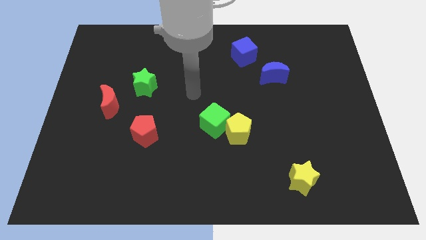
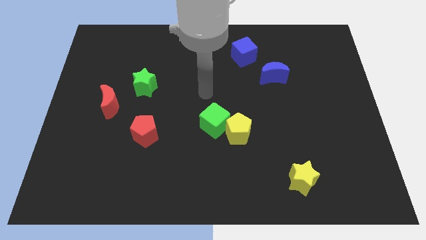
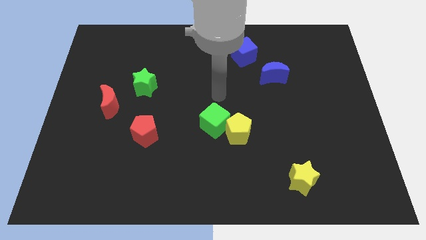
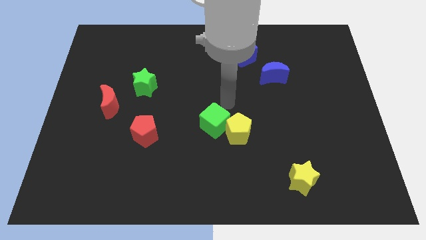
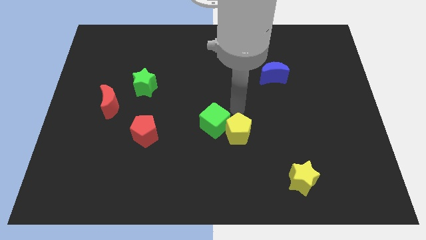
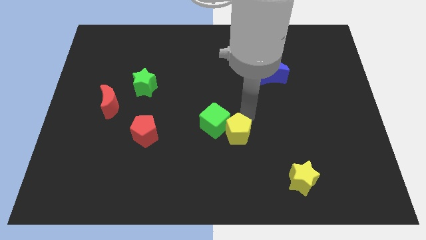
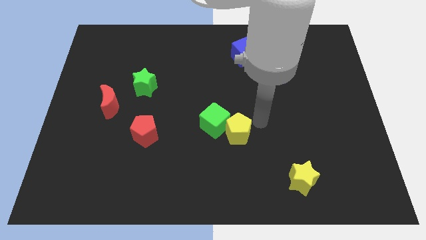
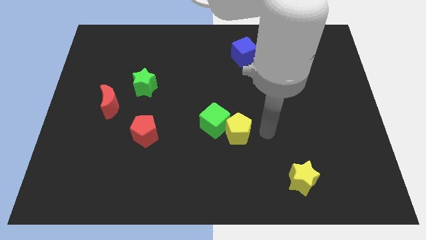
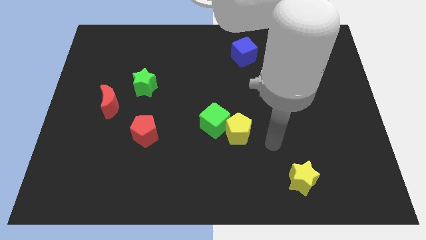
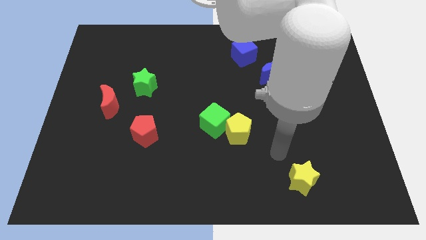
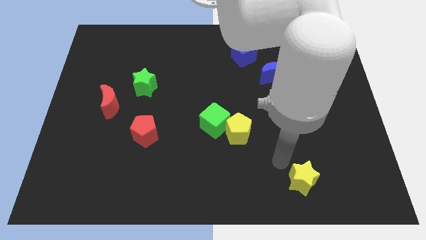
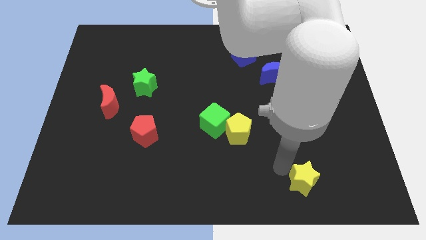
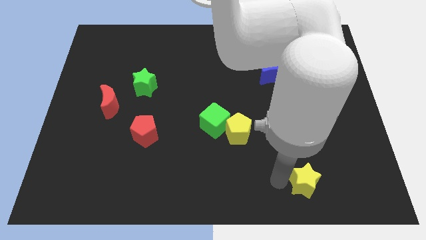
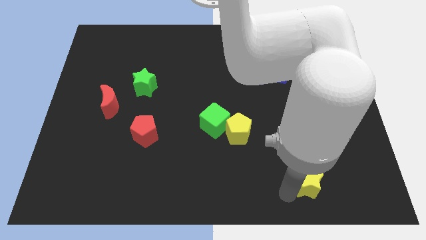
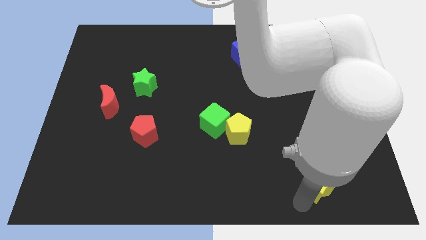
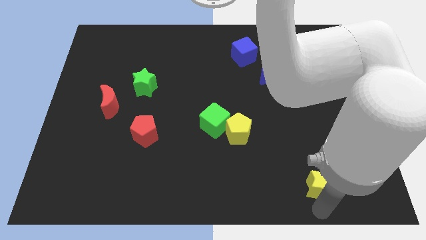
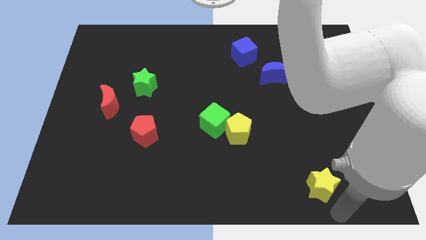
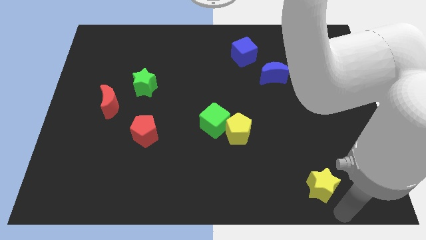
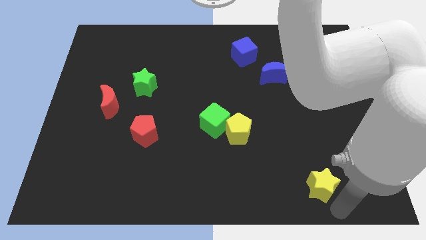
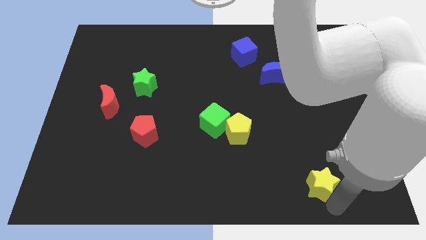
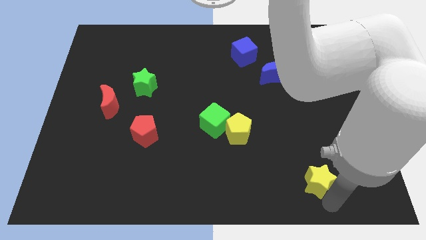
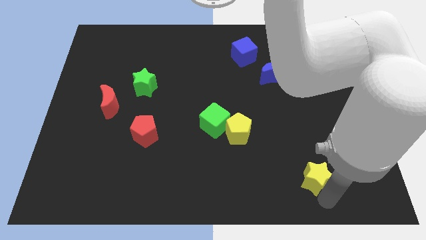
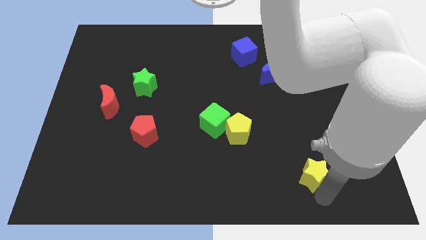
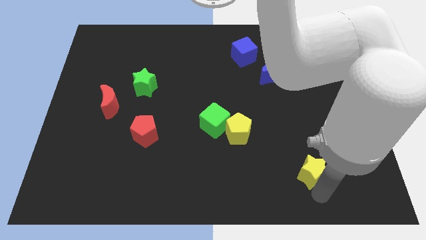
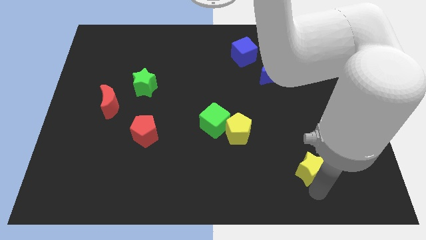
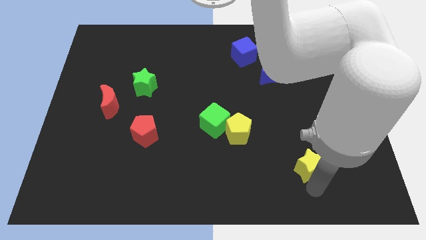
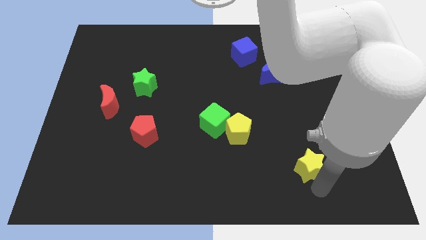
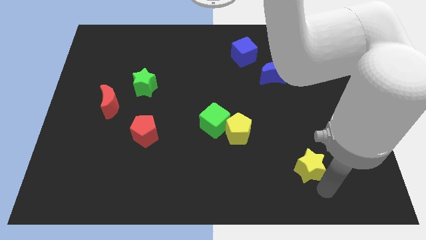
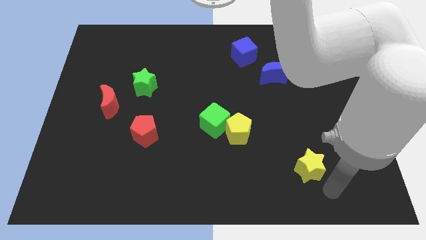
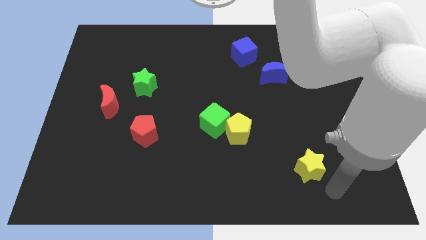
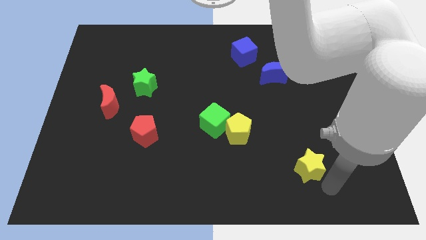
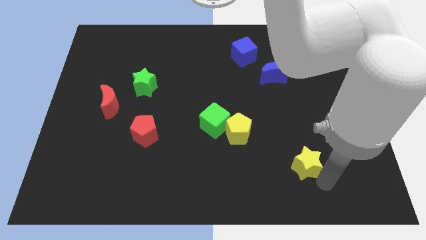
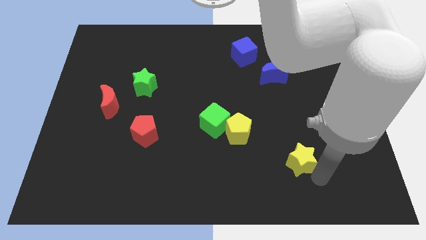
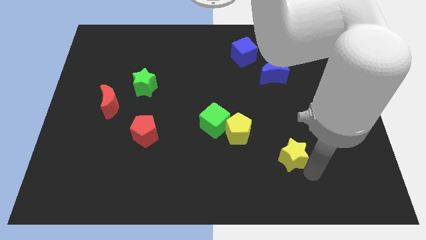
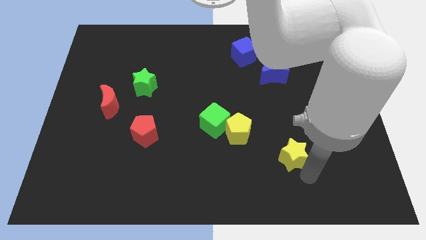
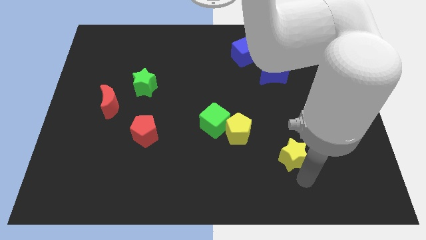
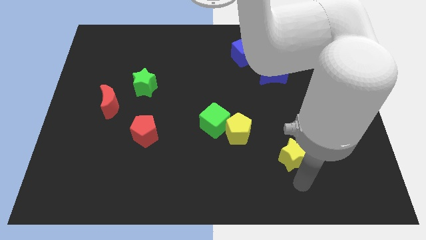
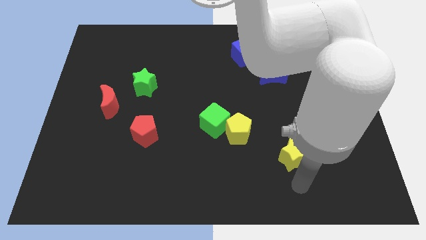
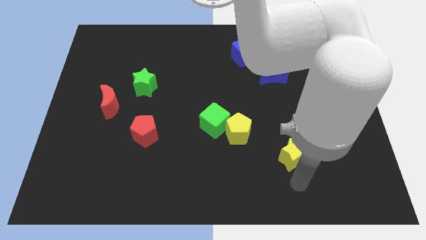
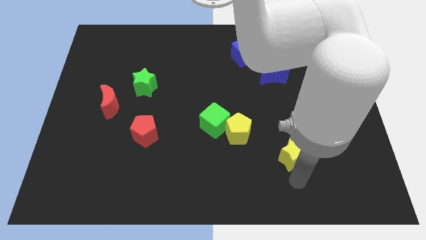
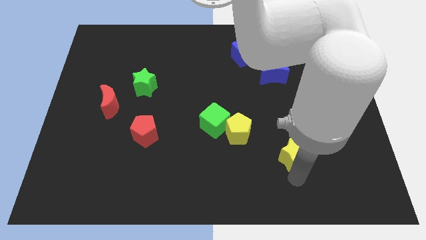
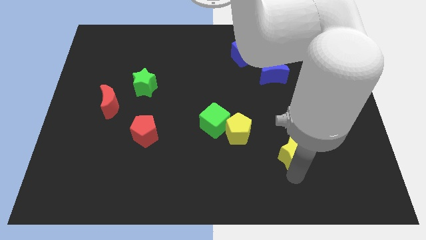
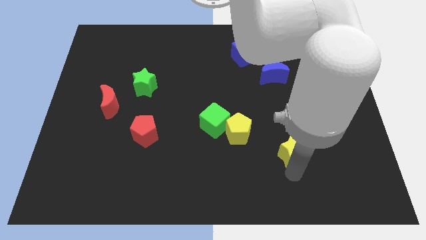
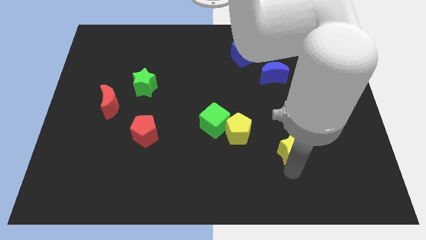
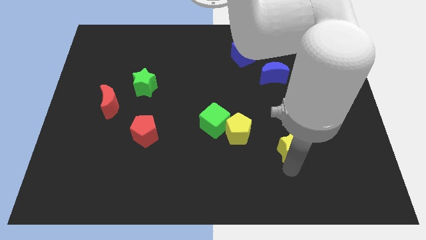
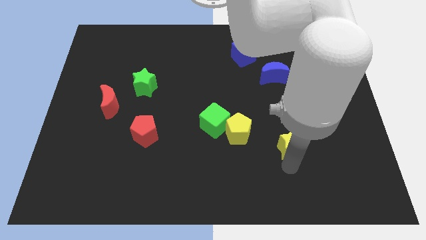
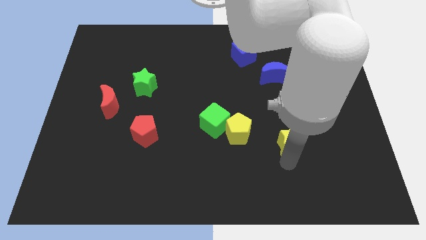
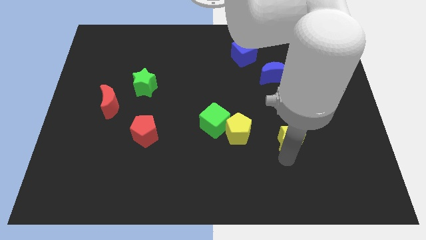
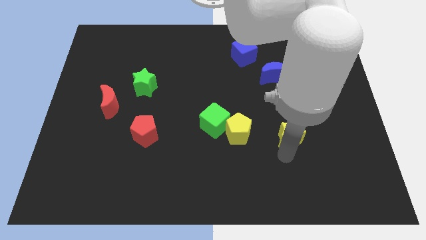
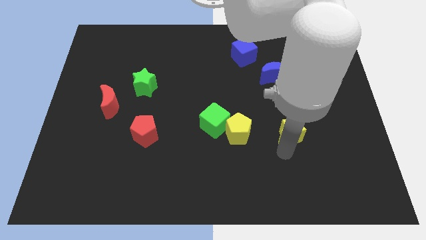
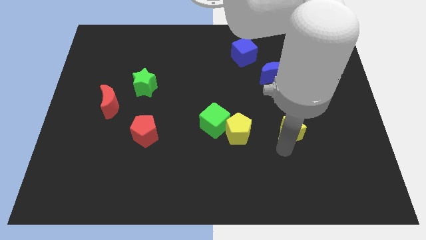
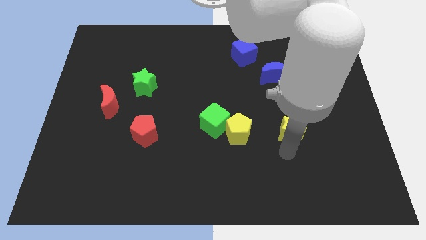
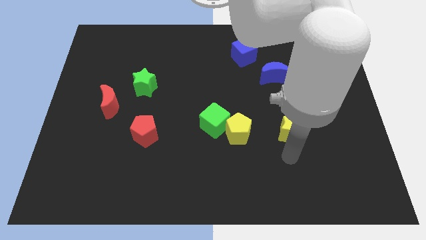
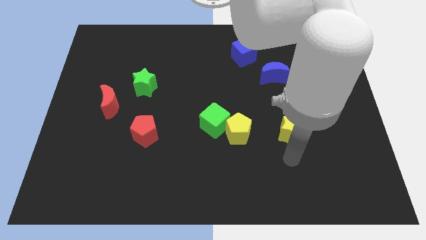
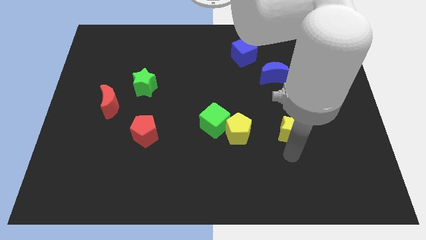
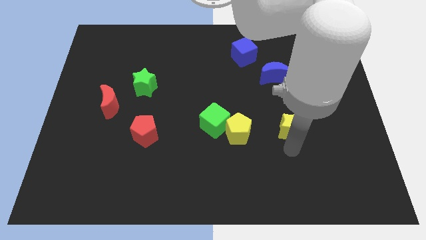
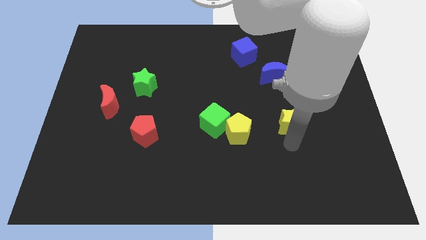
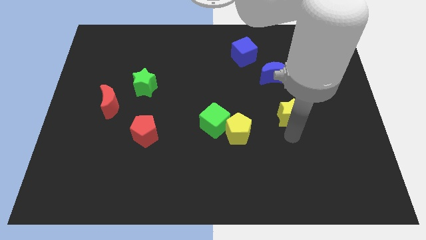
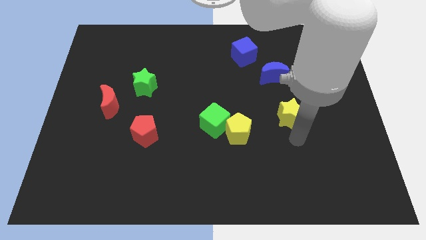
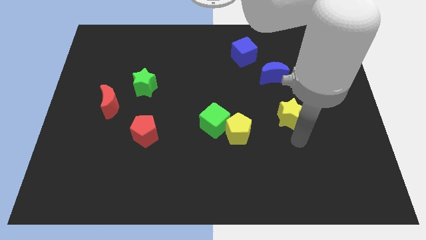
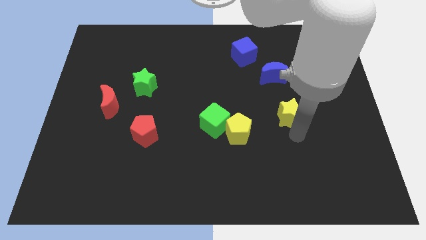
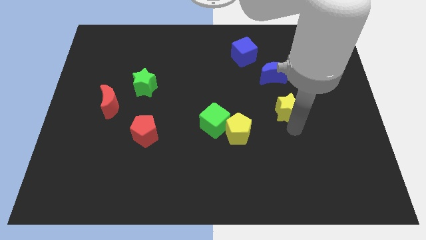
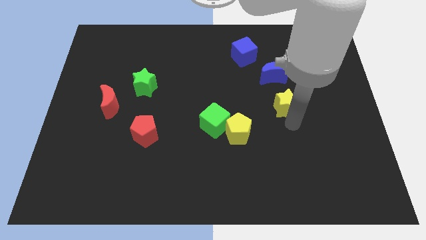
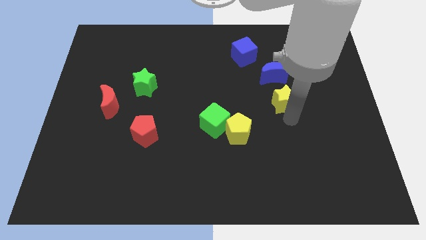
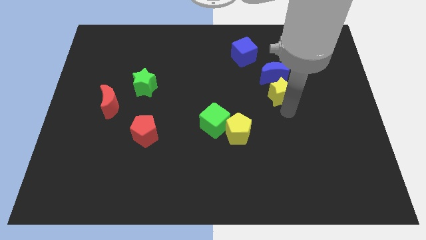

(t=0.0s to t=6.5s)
push the yellow star next to the blue moon

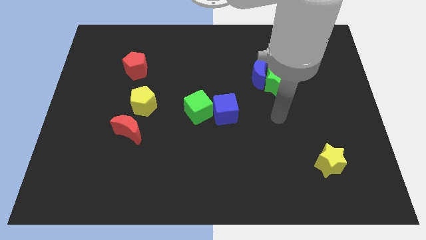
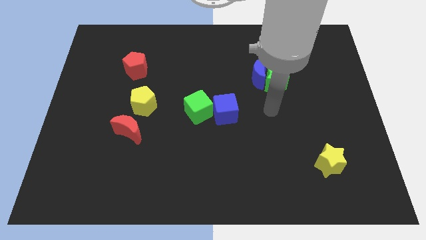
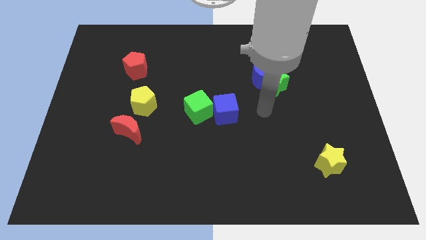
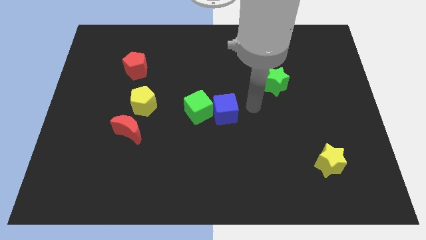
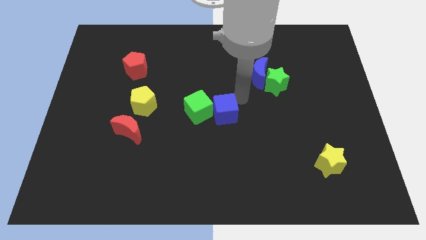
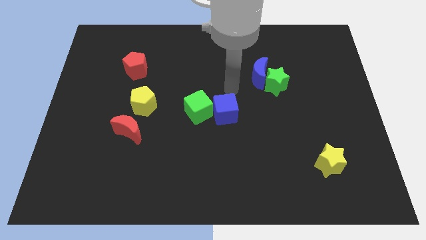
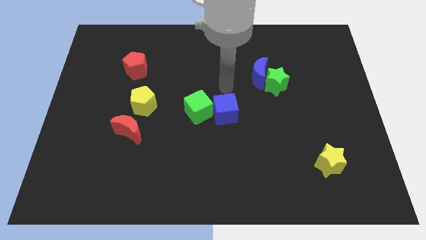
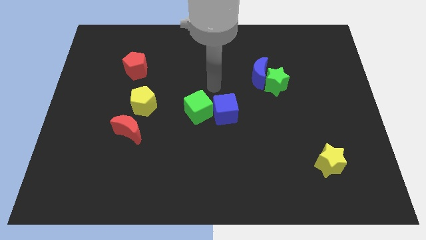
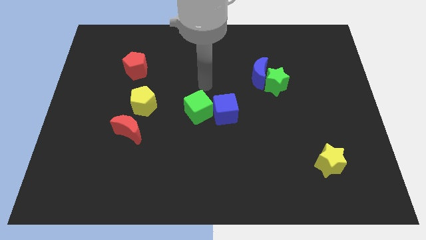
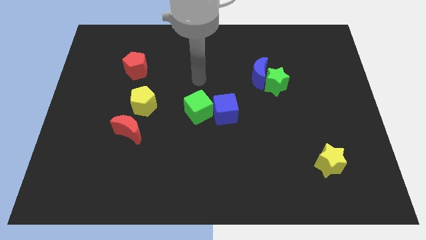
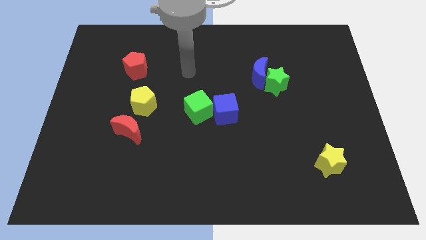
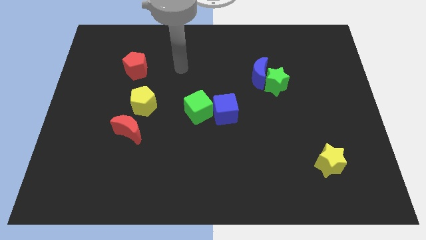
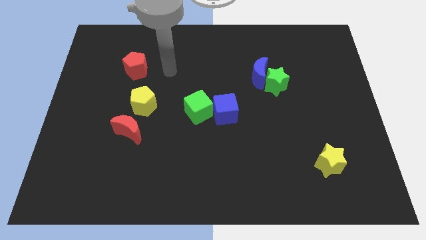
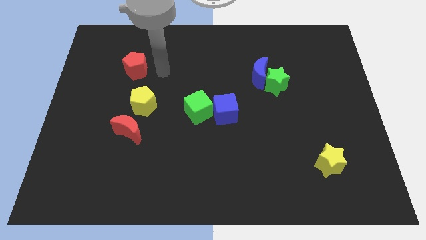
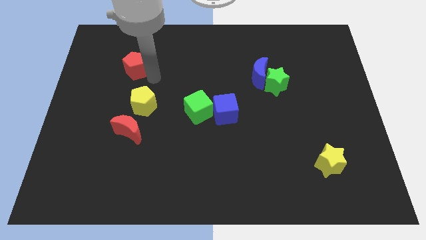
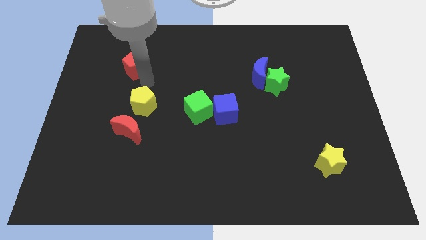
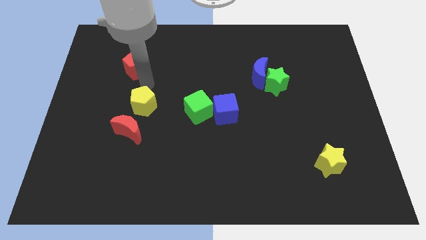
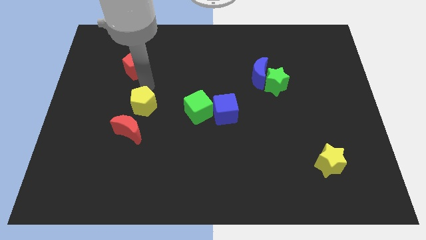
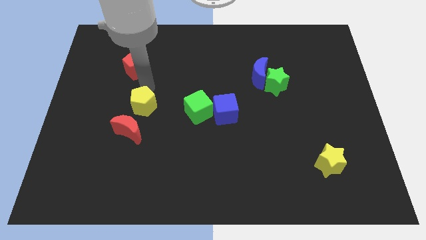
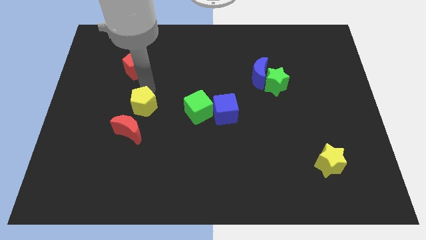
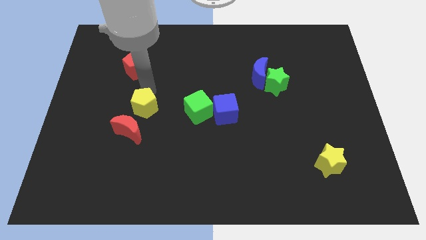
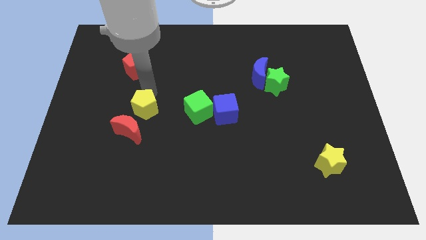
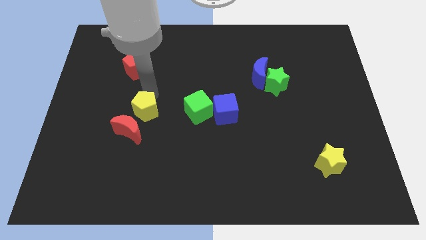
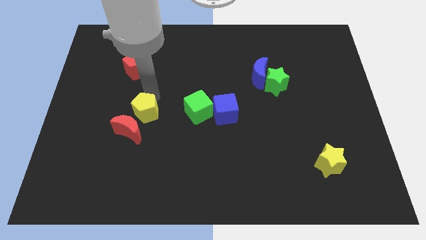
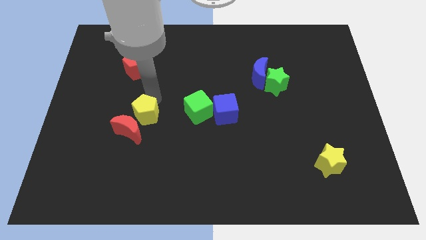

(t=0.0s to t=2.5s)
slide the yellow pentagon towards the red moon
